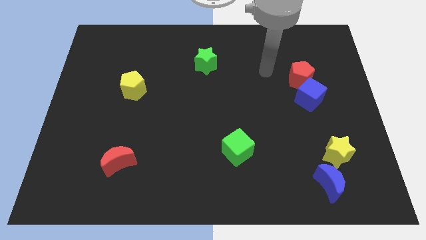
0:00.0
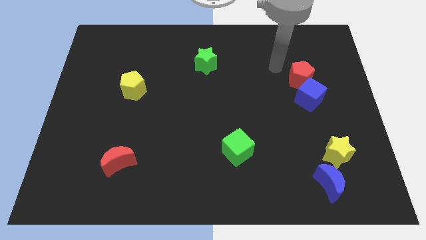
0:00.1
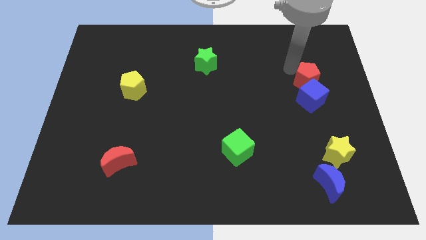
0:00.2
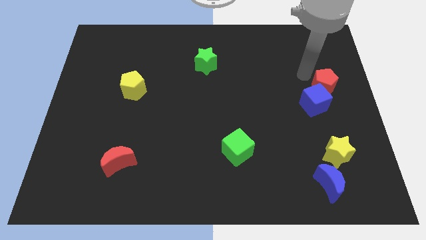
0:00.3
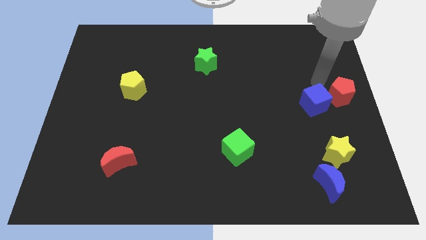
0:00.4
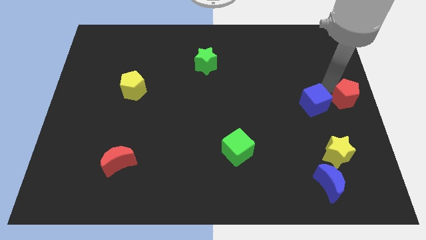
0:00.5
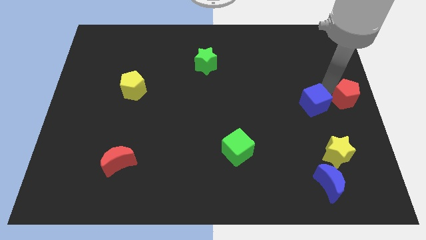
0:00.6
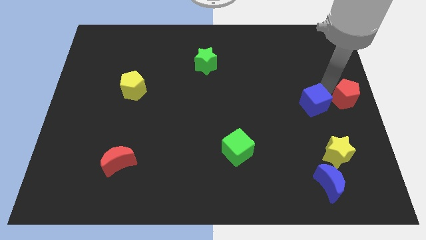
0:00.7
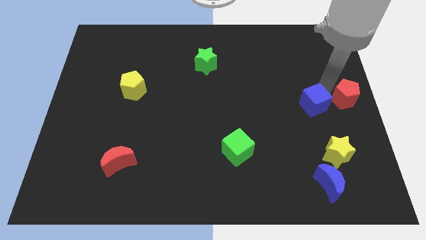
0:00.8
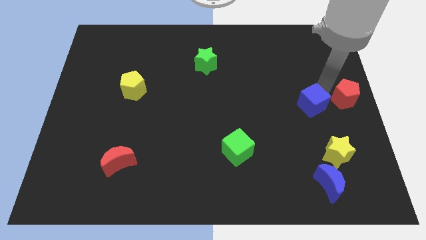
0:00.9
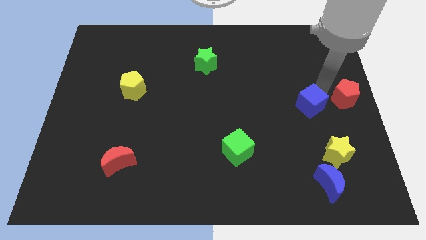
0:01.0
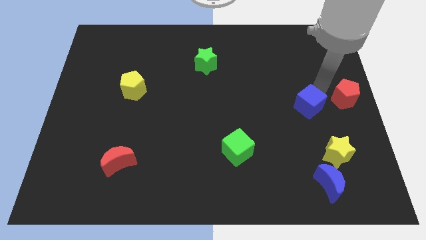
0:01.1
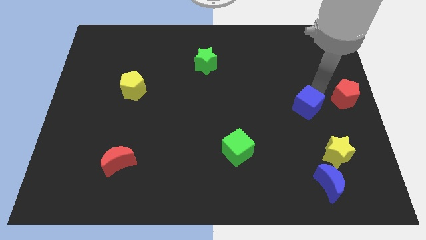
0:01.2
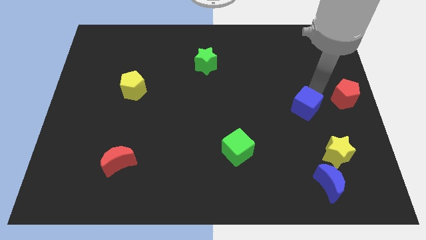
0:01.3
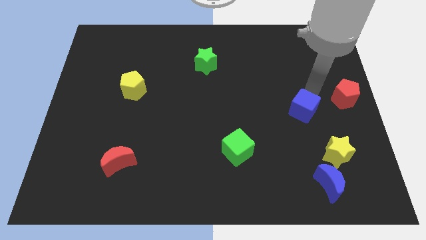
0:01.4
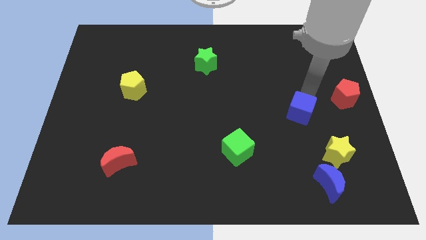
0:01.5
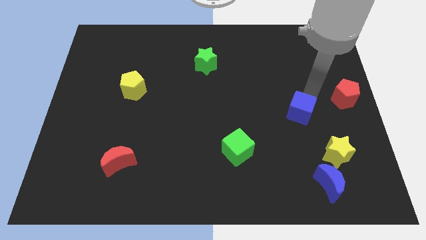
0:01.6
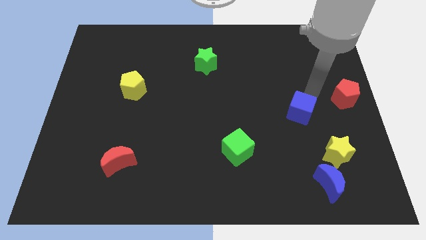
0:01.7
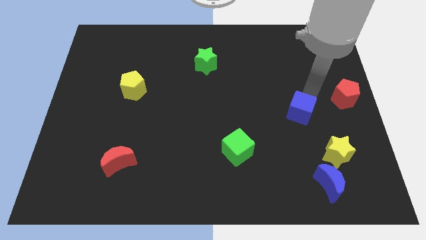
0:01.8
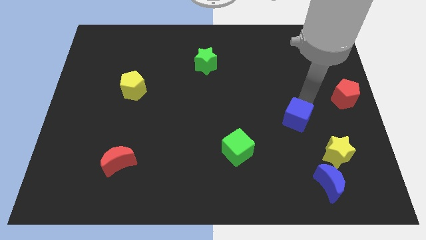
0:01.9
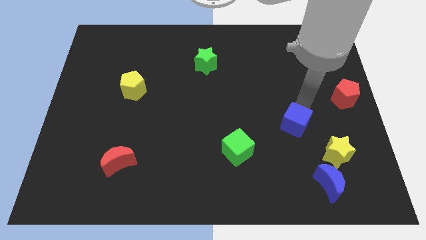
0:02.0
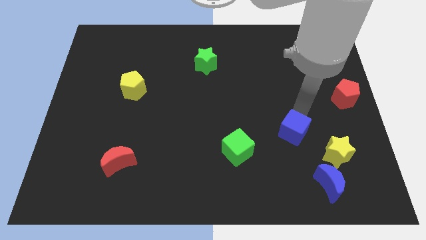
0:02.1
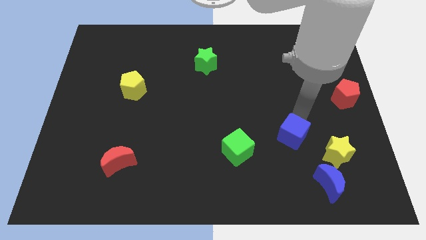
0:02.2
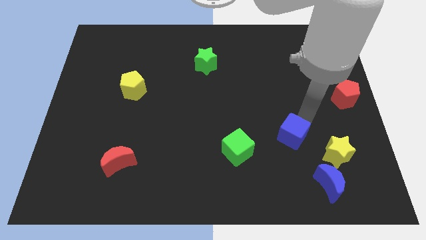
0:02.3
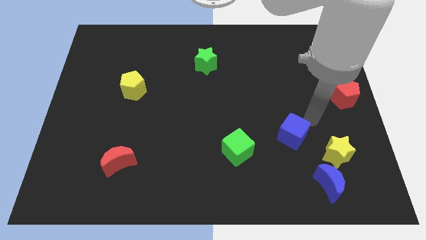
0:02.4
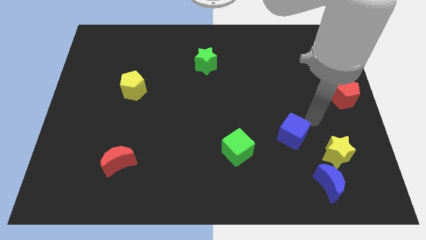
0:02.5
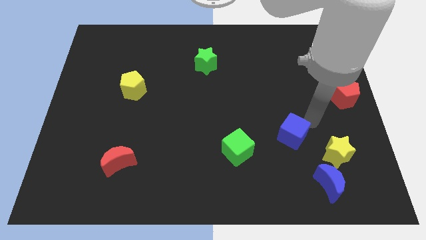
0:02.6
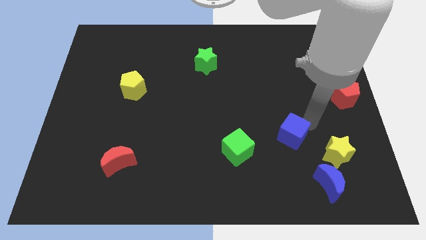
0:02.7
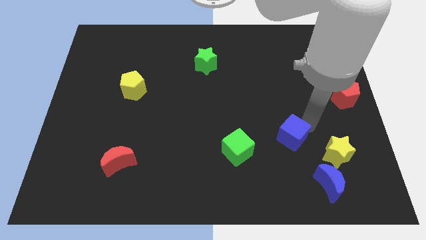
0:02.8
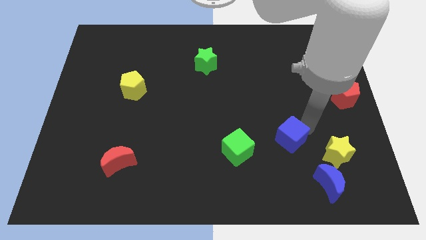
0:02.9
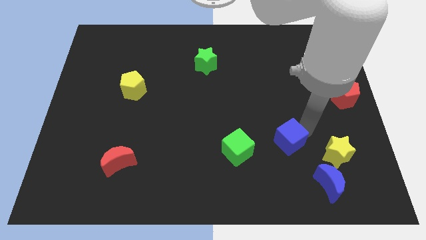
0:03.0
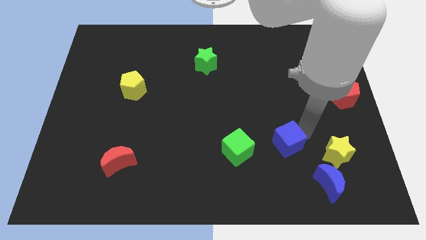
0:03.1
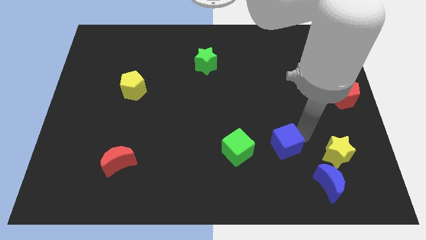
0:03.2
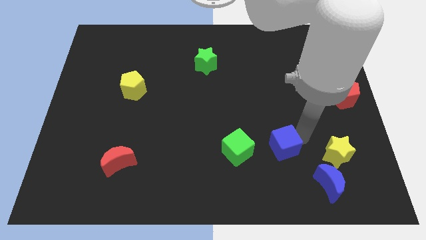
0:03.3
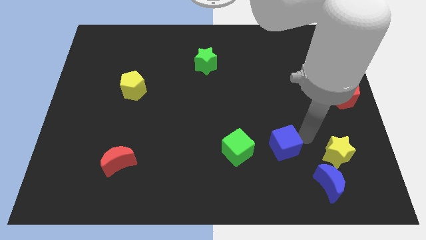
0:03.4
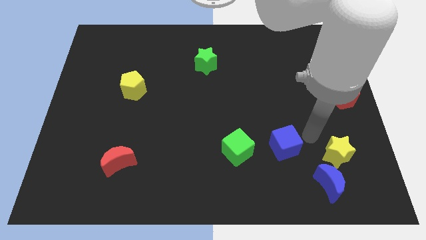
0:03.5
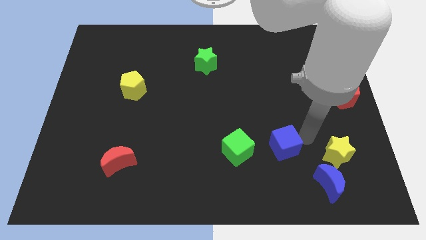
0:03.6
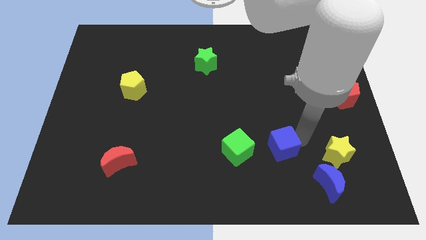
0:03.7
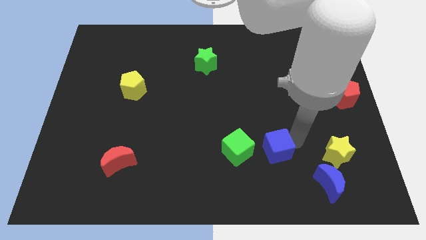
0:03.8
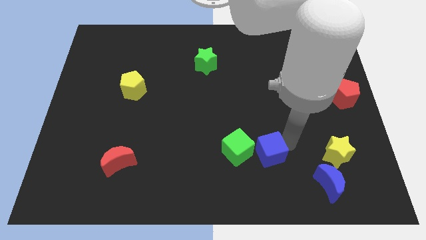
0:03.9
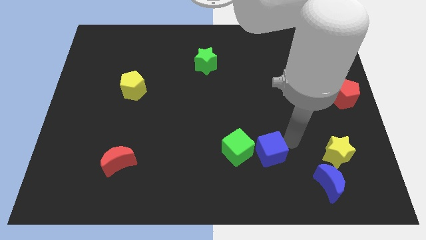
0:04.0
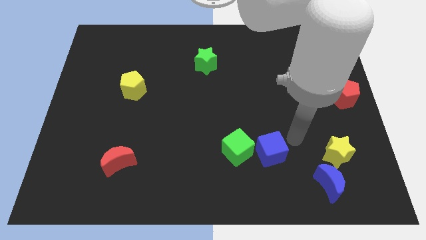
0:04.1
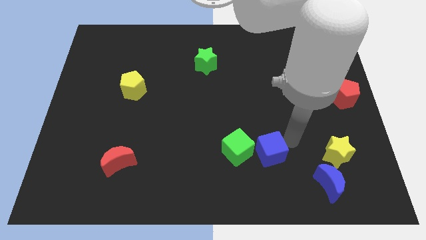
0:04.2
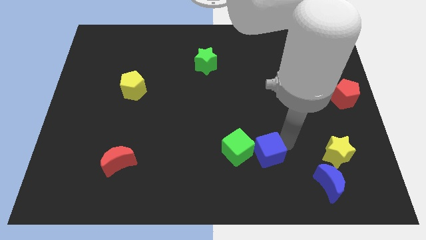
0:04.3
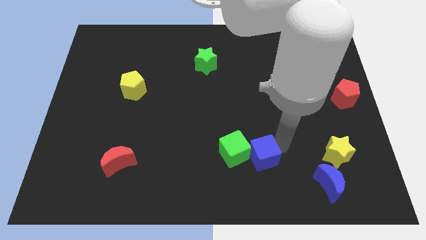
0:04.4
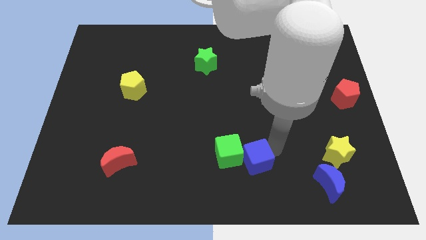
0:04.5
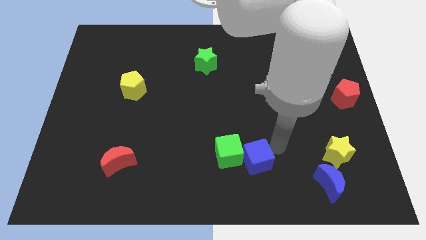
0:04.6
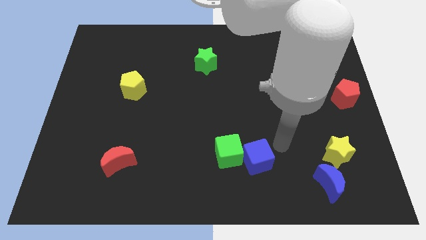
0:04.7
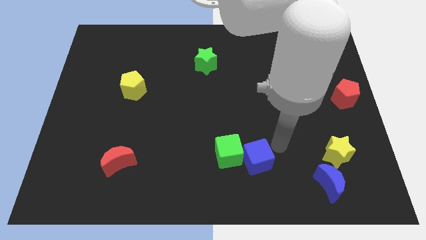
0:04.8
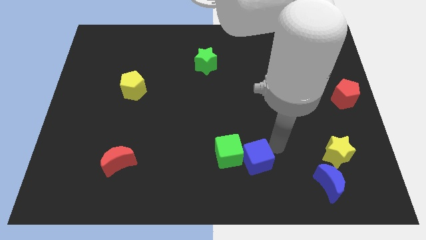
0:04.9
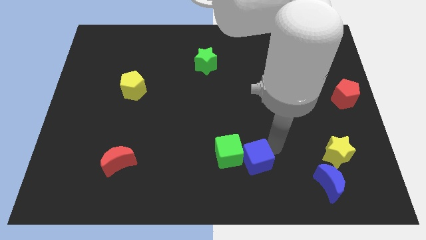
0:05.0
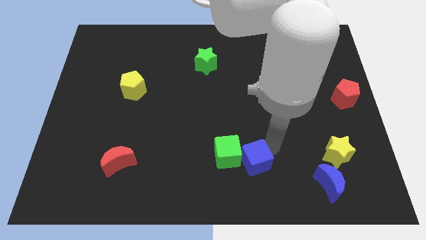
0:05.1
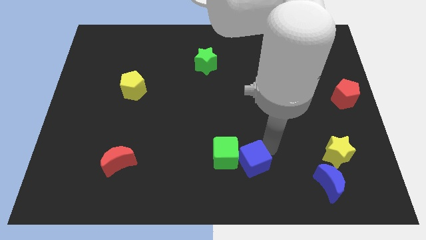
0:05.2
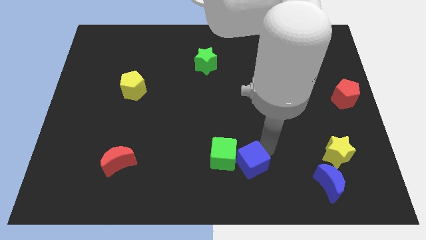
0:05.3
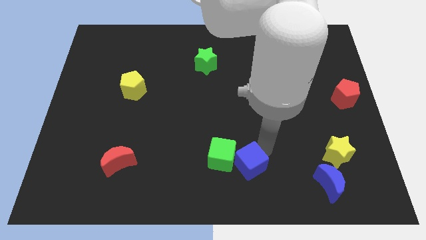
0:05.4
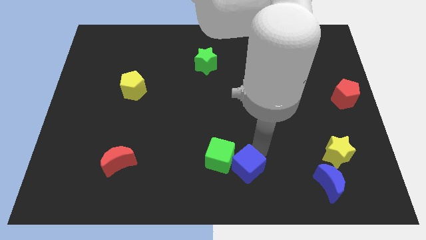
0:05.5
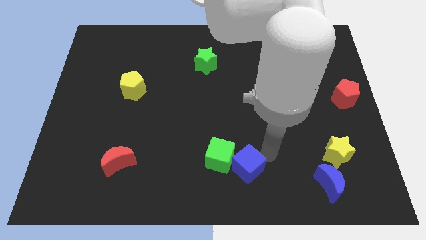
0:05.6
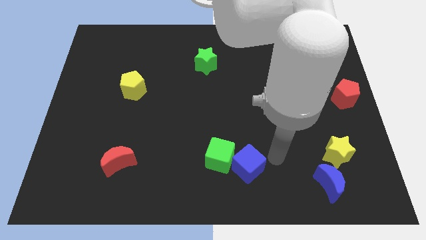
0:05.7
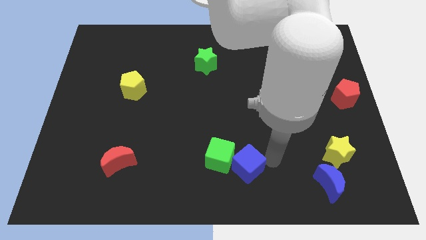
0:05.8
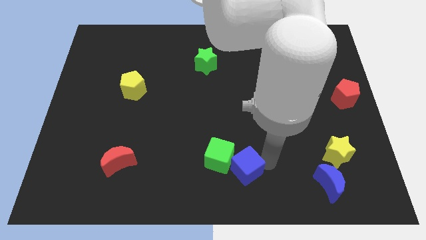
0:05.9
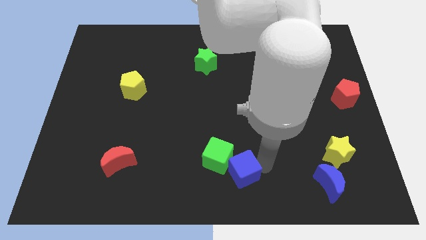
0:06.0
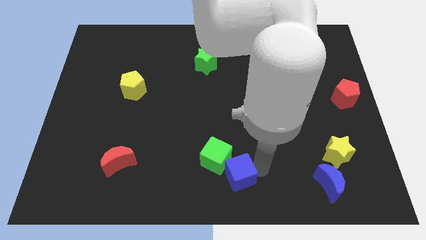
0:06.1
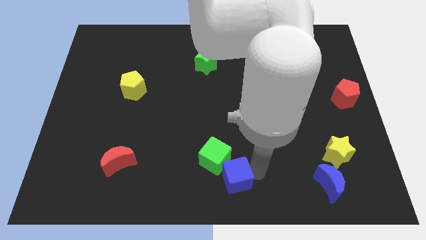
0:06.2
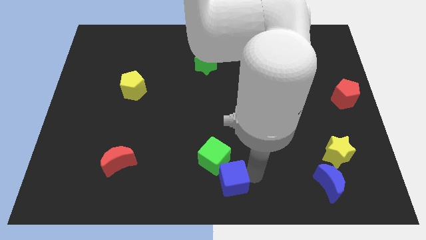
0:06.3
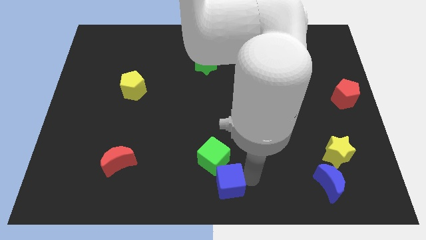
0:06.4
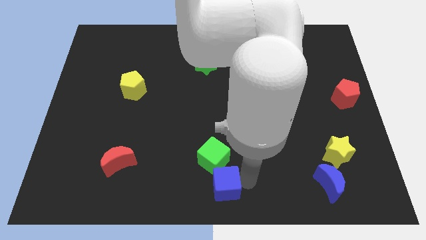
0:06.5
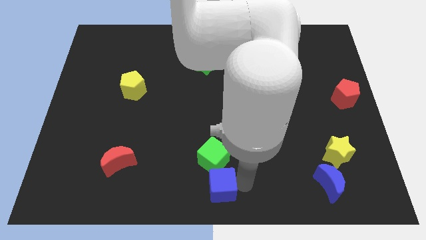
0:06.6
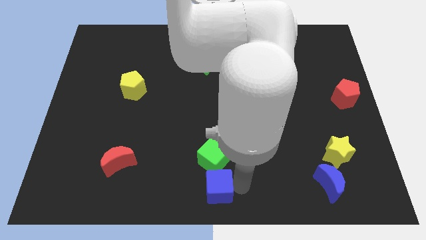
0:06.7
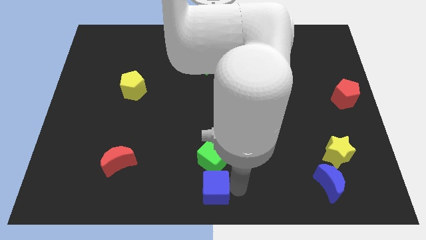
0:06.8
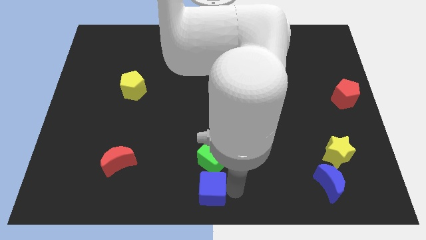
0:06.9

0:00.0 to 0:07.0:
push the blue cube to the bottom left of the green cube
